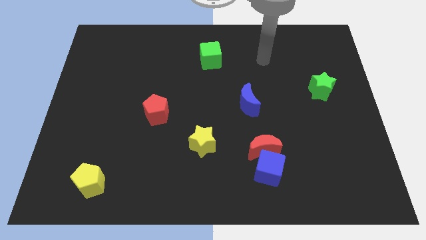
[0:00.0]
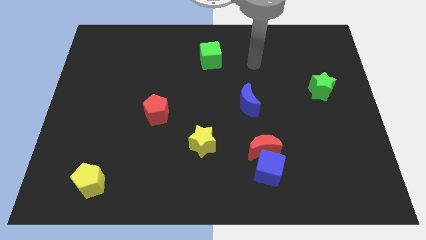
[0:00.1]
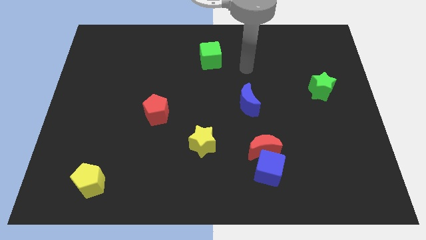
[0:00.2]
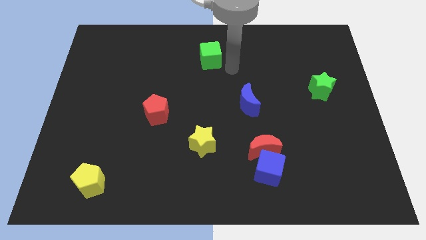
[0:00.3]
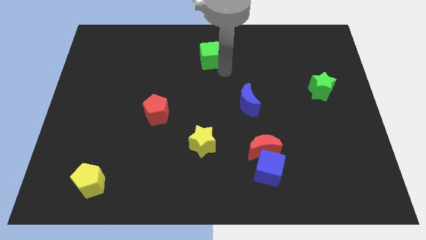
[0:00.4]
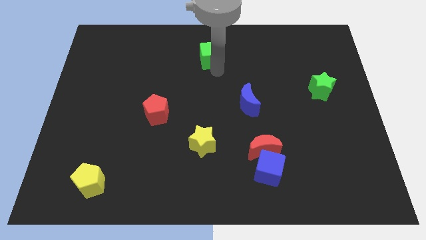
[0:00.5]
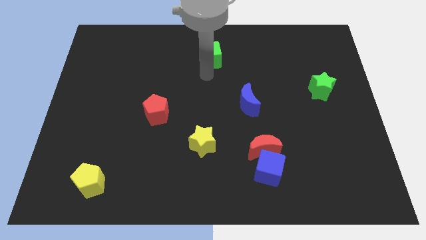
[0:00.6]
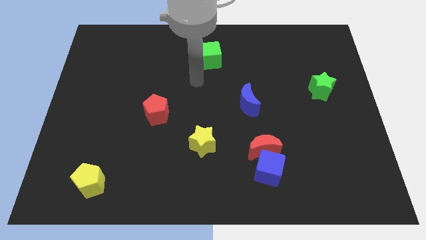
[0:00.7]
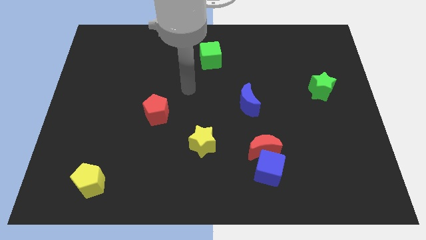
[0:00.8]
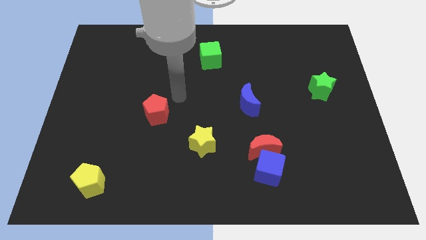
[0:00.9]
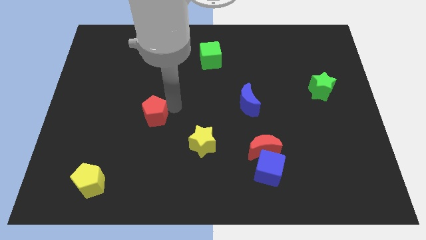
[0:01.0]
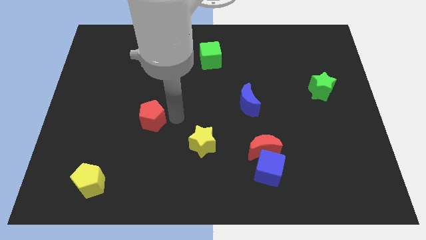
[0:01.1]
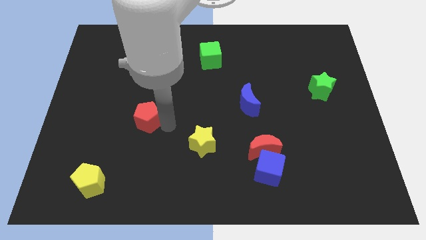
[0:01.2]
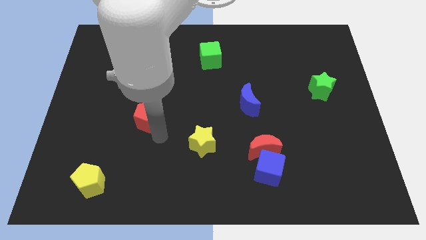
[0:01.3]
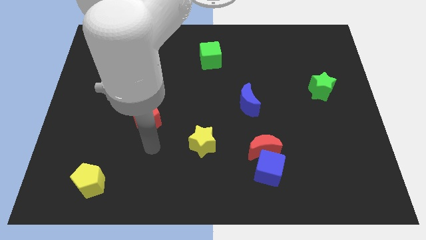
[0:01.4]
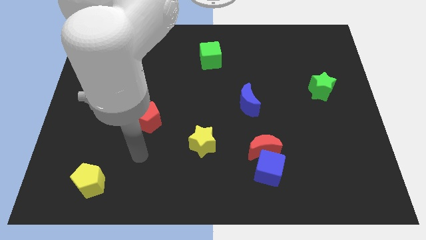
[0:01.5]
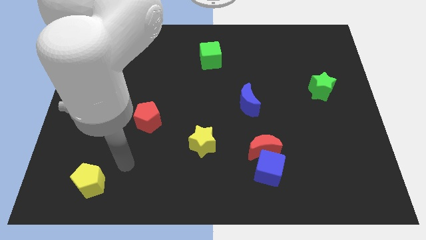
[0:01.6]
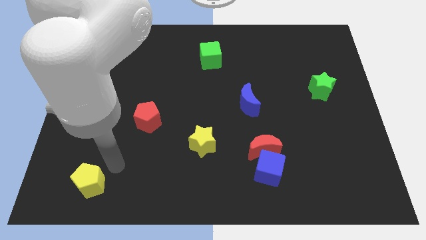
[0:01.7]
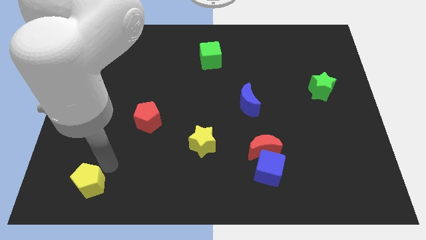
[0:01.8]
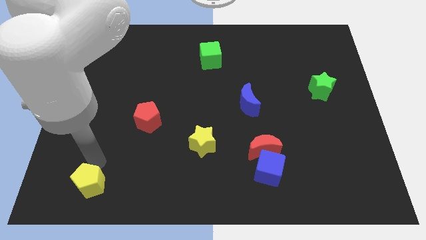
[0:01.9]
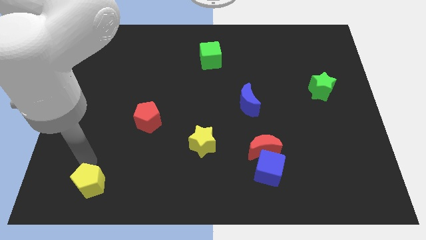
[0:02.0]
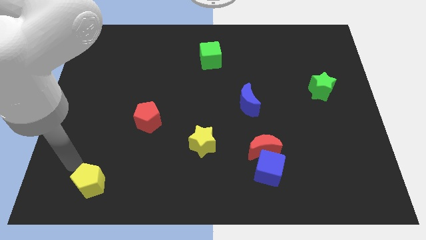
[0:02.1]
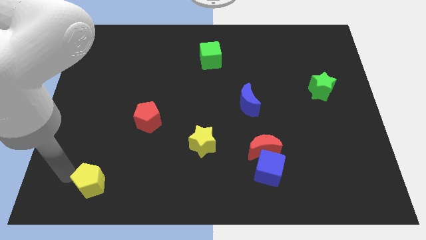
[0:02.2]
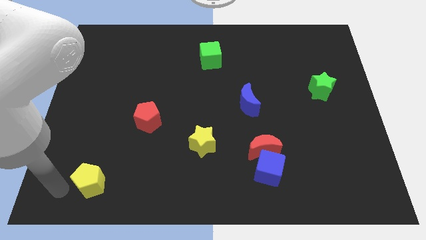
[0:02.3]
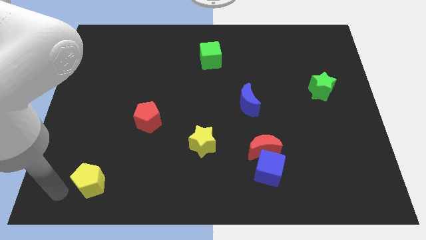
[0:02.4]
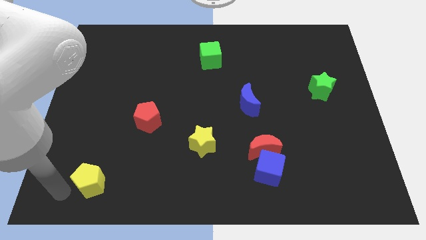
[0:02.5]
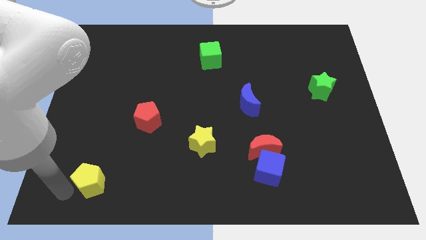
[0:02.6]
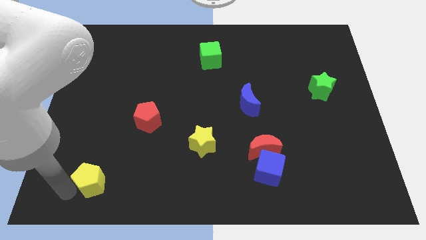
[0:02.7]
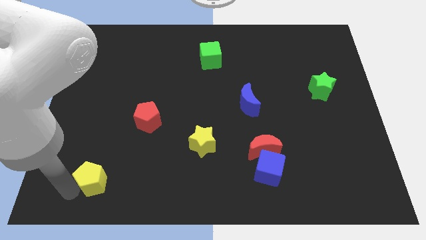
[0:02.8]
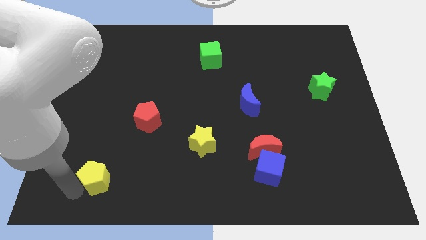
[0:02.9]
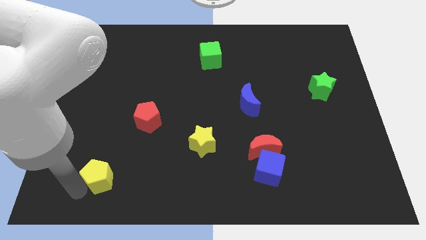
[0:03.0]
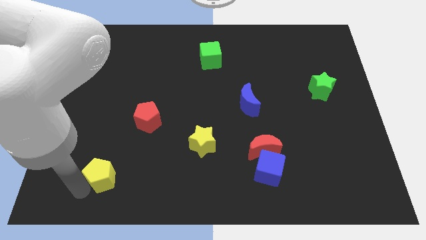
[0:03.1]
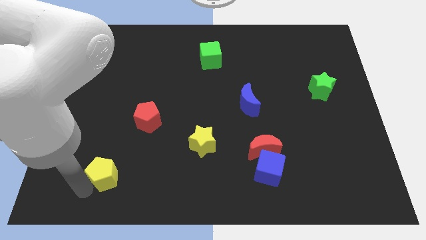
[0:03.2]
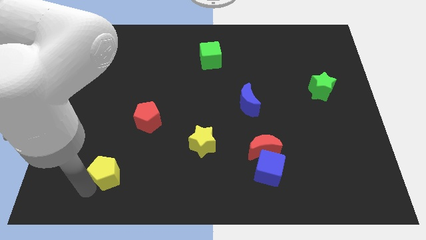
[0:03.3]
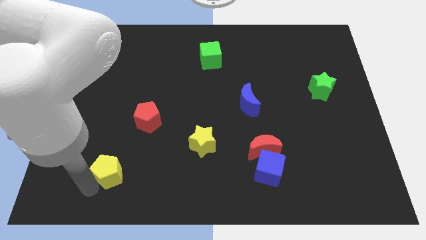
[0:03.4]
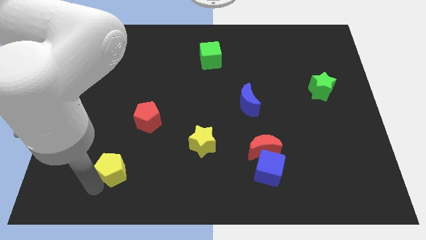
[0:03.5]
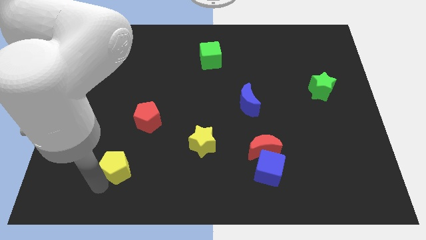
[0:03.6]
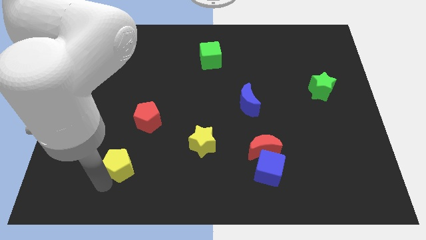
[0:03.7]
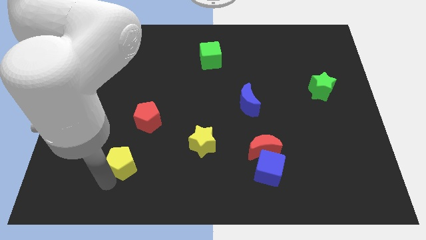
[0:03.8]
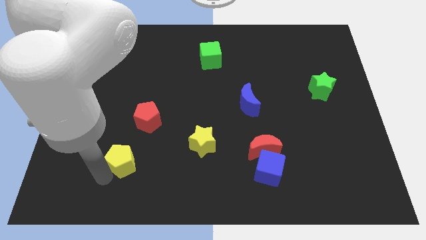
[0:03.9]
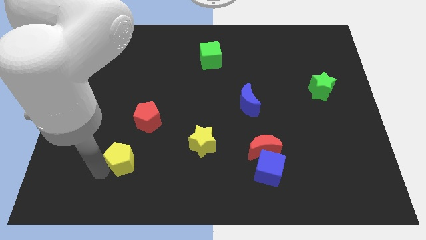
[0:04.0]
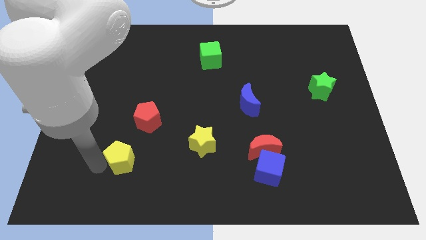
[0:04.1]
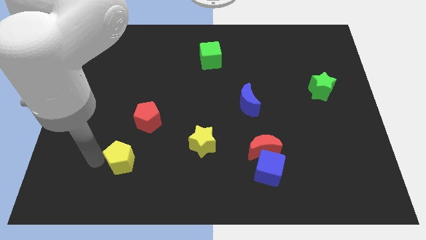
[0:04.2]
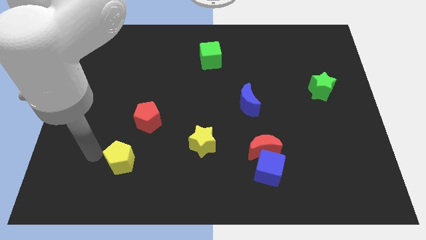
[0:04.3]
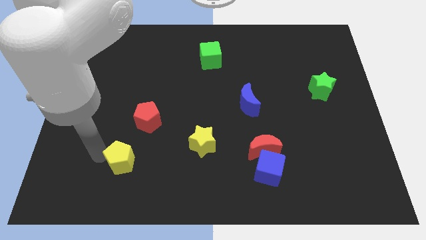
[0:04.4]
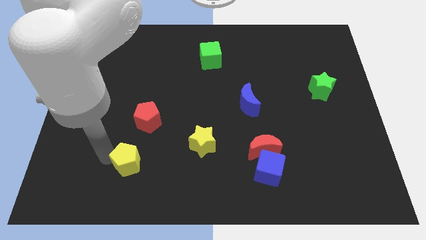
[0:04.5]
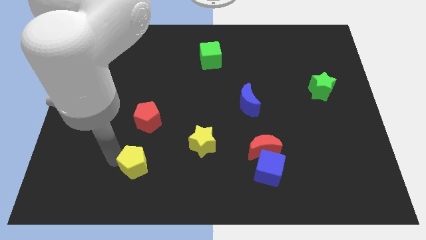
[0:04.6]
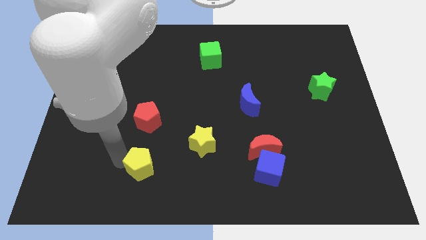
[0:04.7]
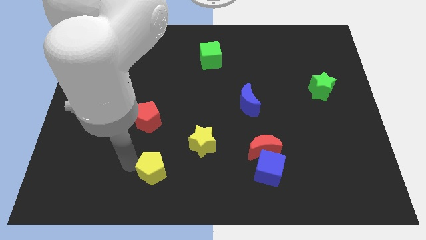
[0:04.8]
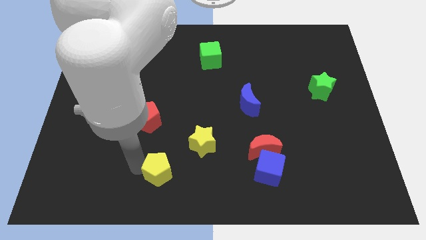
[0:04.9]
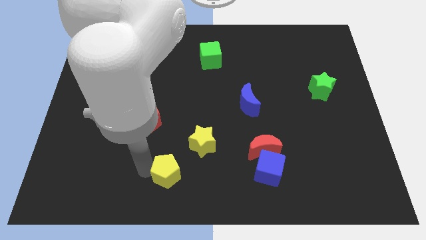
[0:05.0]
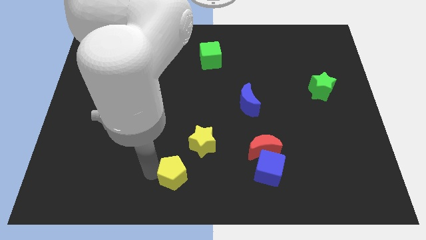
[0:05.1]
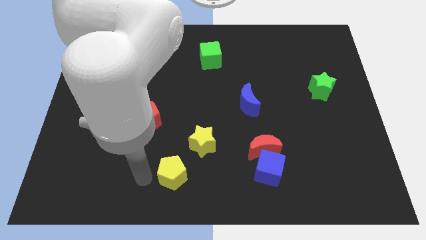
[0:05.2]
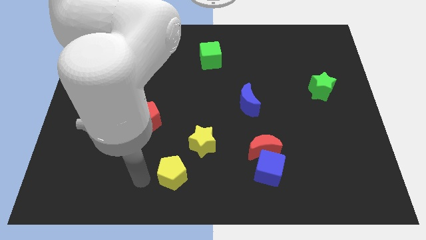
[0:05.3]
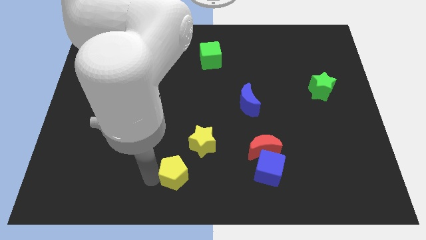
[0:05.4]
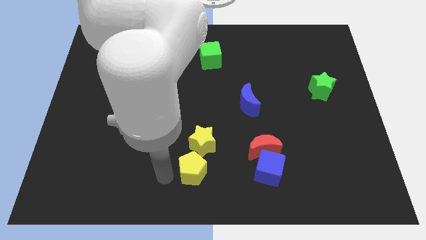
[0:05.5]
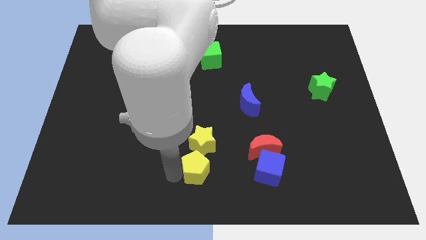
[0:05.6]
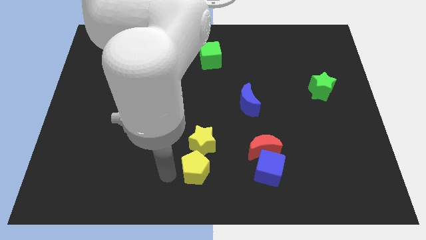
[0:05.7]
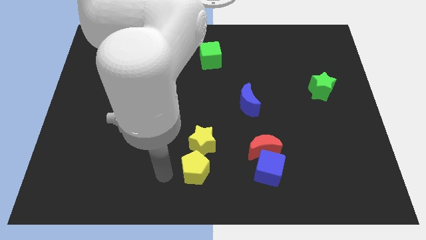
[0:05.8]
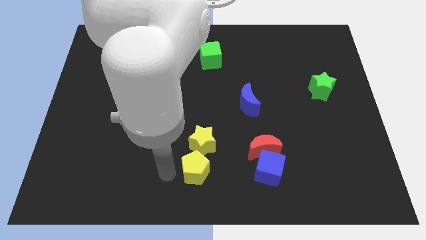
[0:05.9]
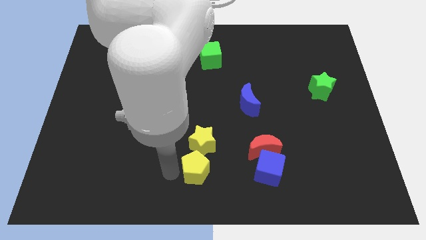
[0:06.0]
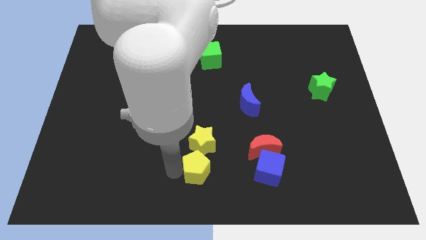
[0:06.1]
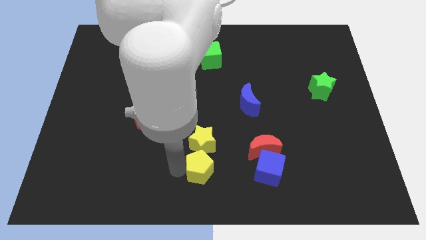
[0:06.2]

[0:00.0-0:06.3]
move the yellow pentagon to the bottom right side of the yellow star
